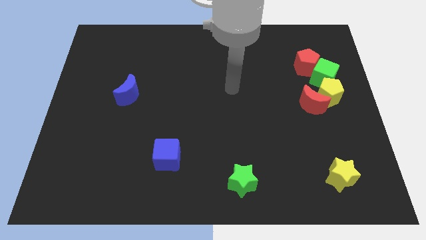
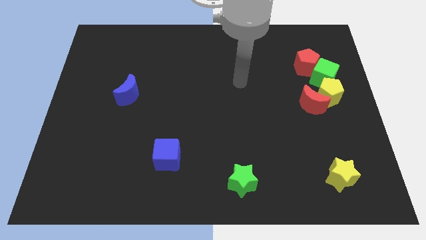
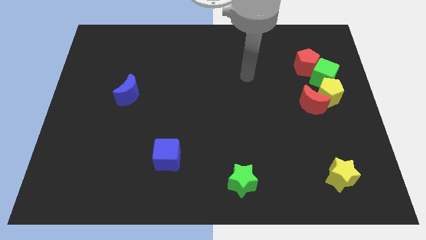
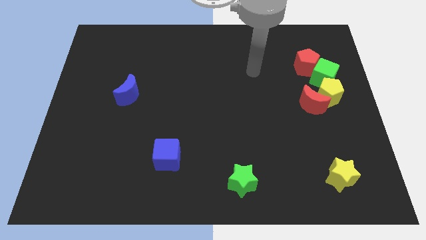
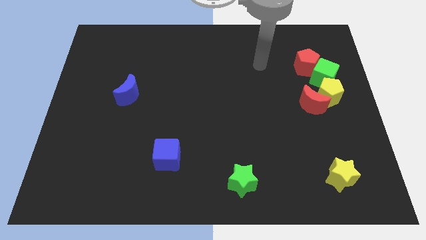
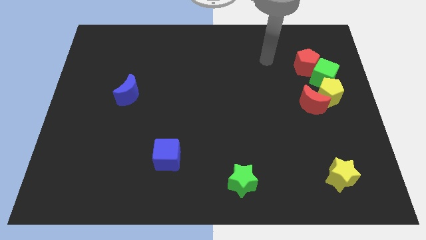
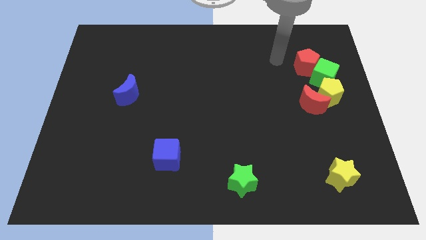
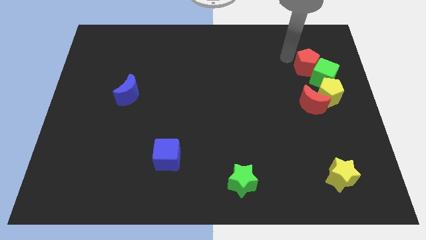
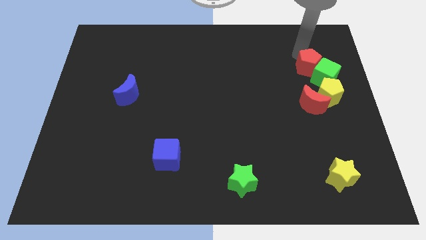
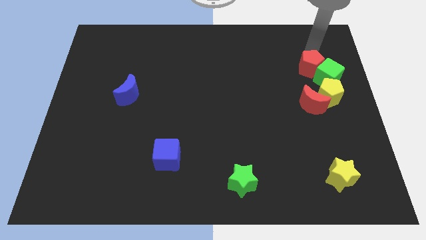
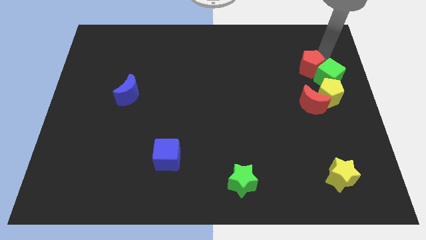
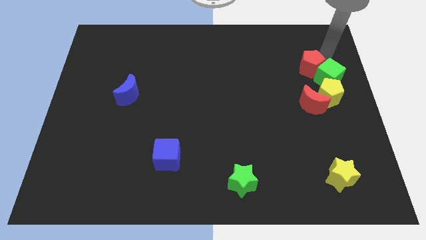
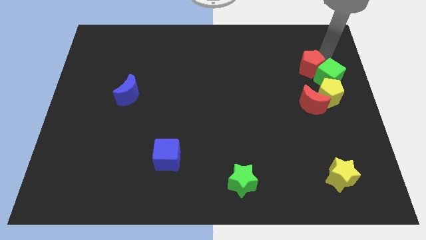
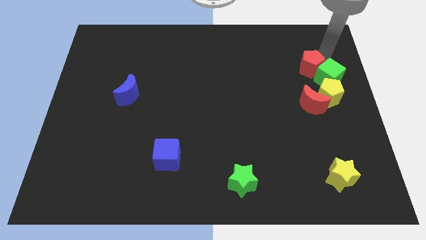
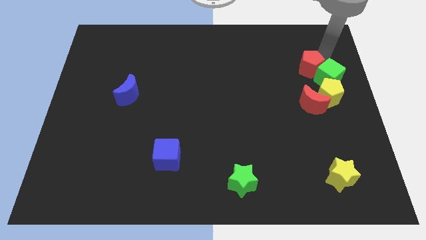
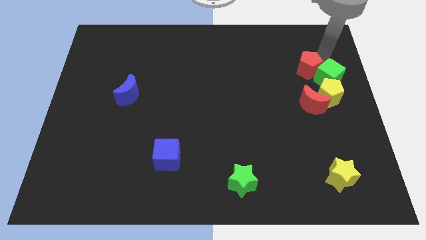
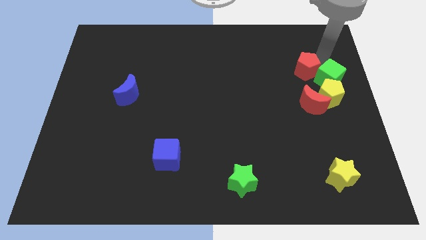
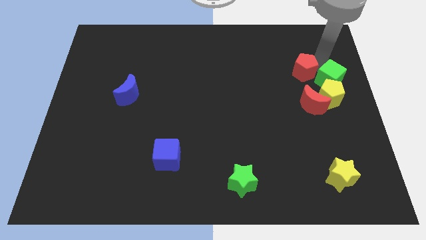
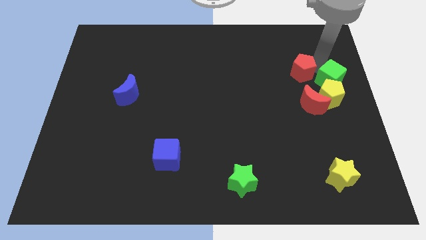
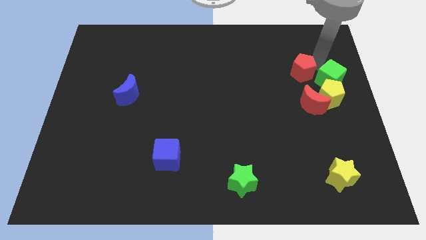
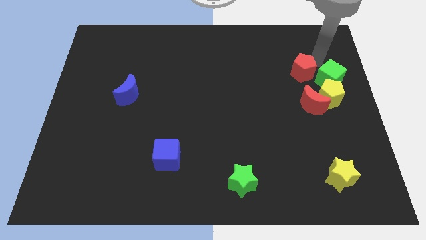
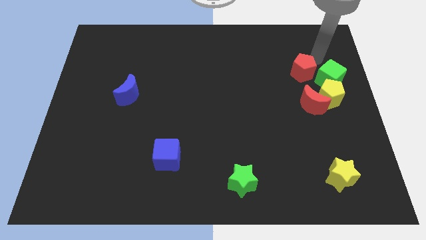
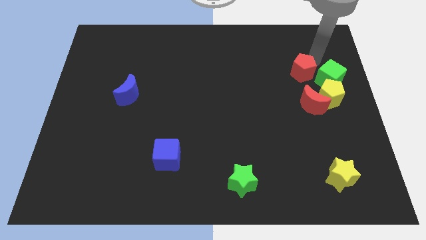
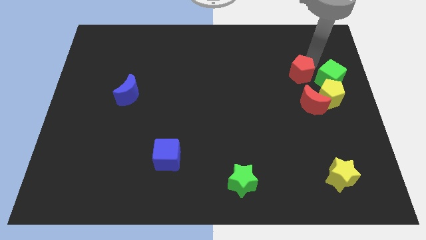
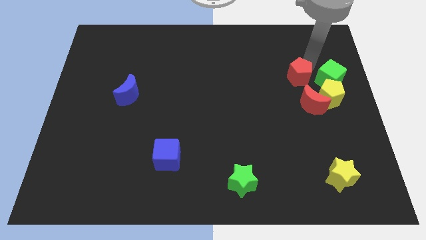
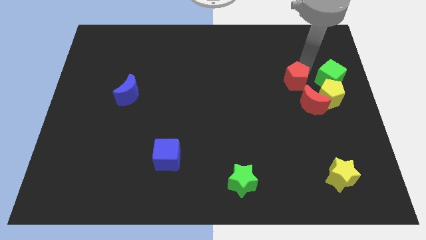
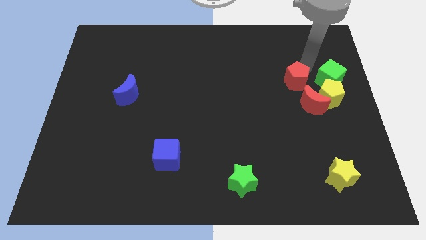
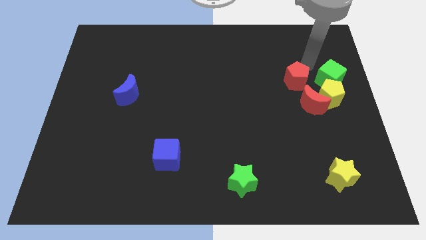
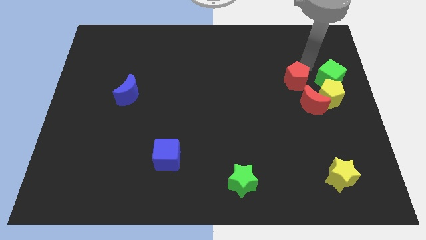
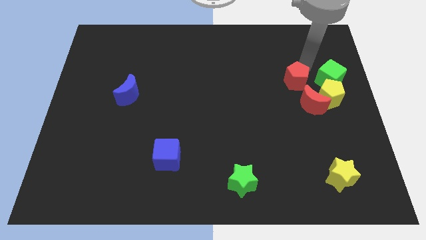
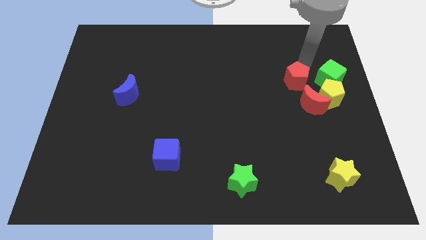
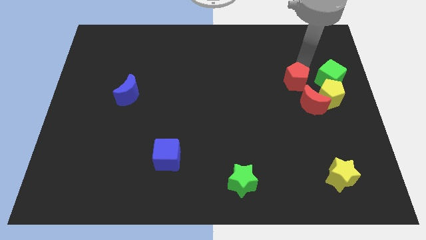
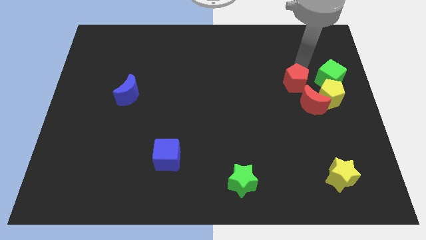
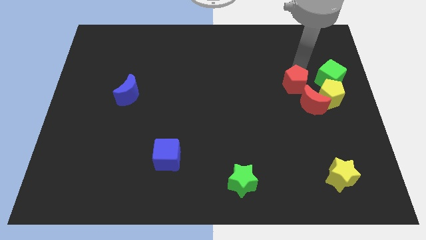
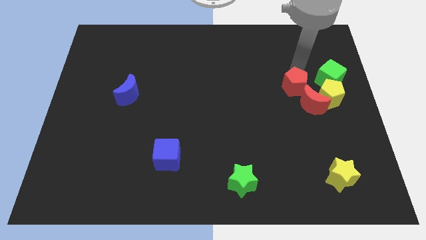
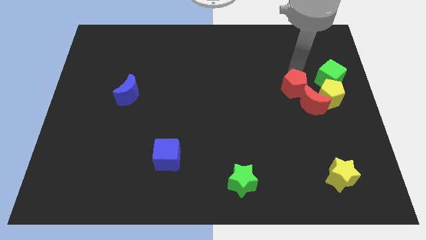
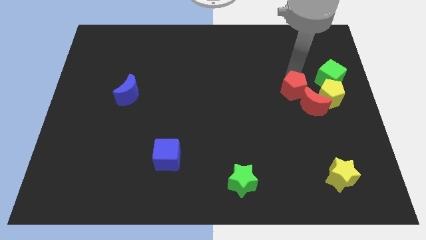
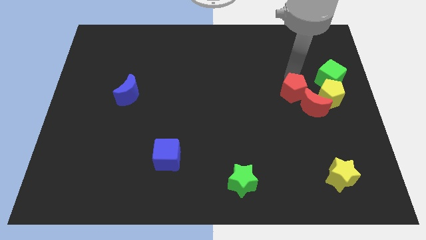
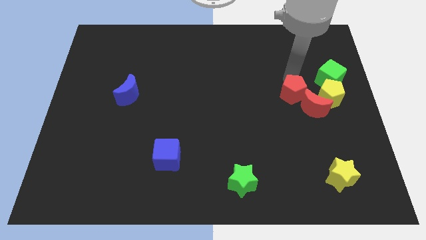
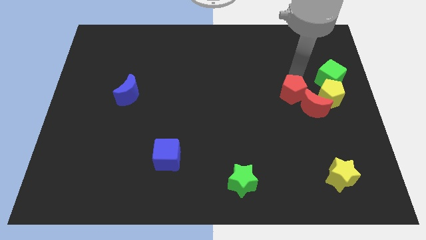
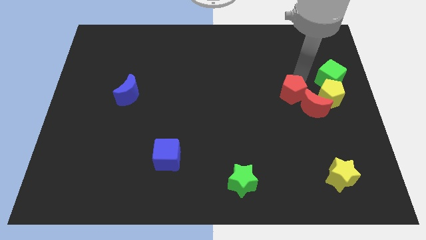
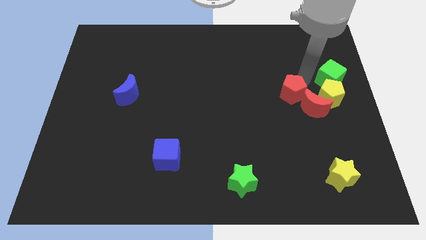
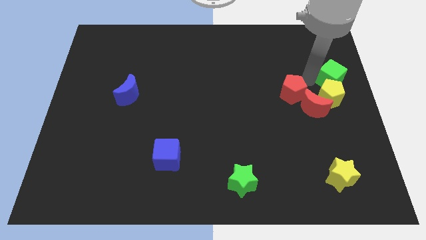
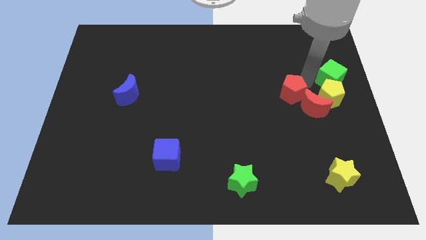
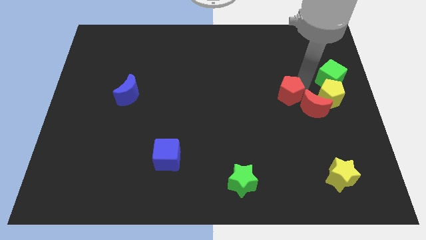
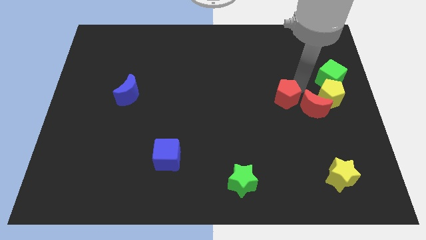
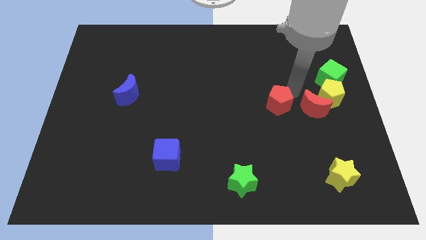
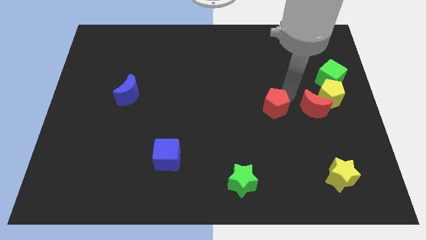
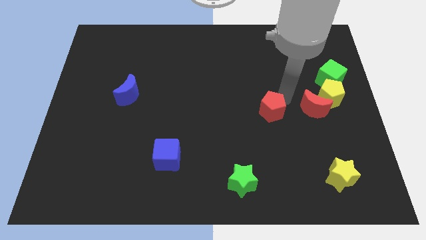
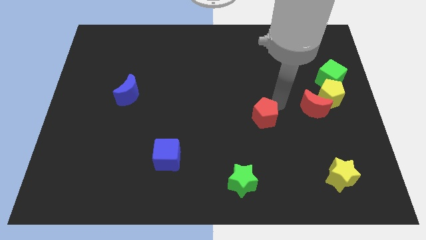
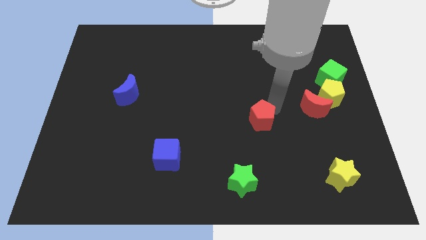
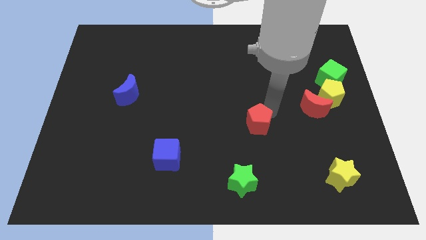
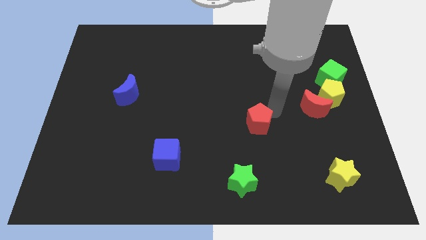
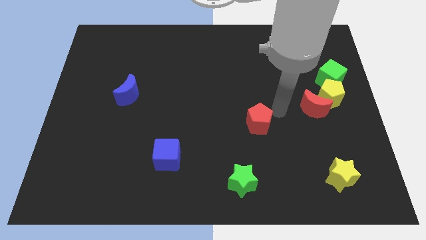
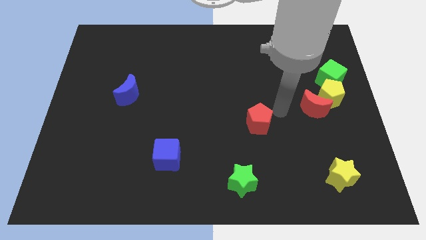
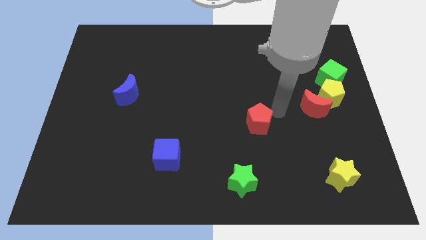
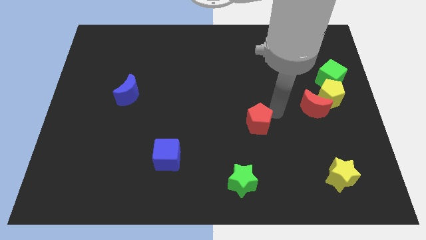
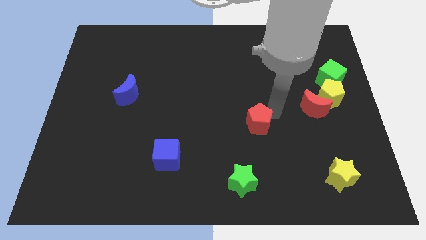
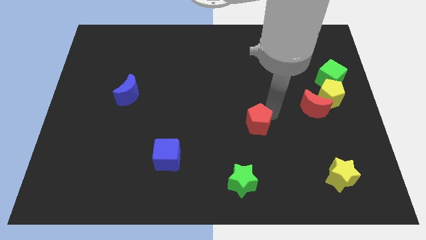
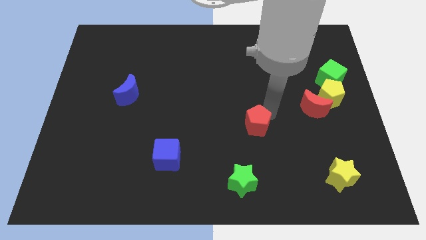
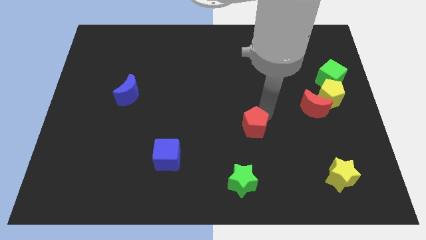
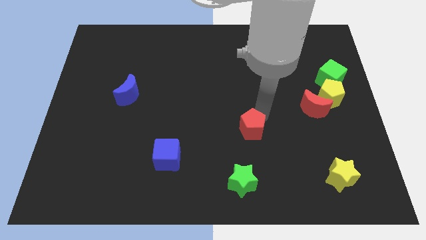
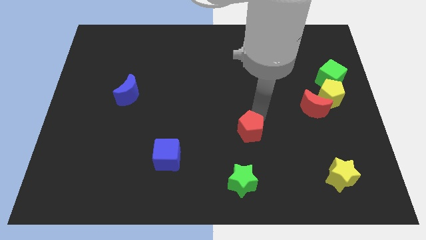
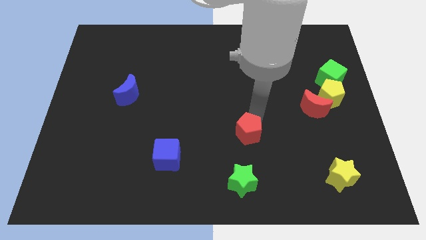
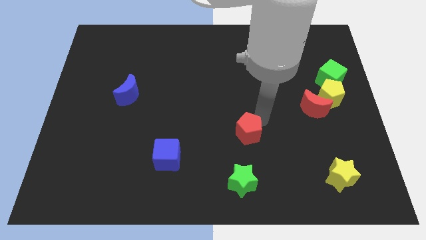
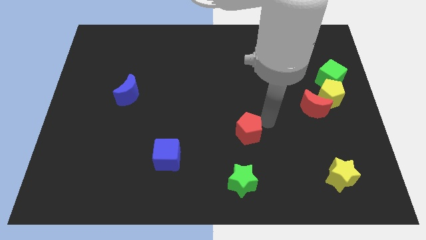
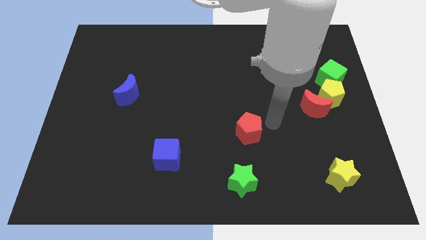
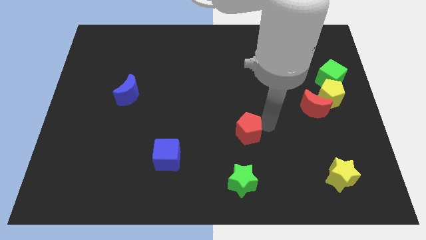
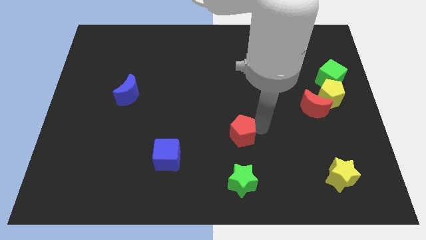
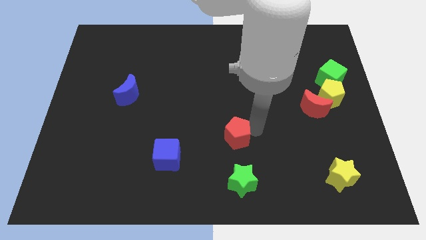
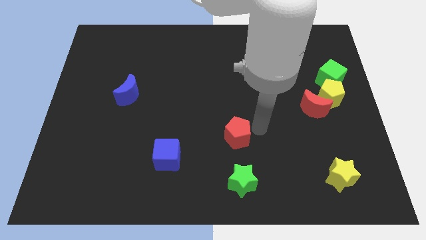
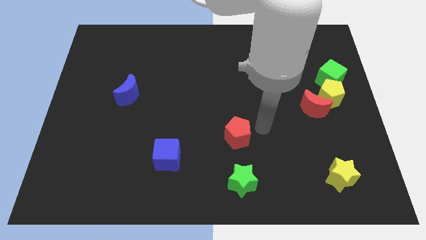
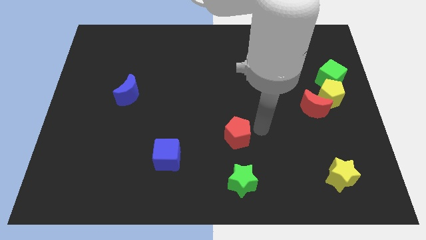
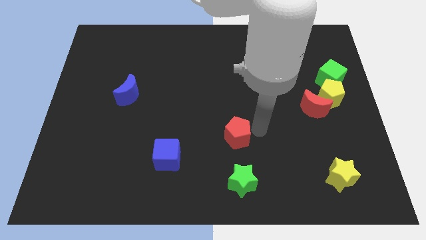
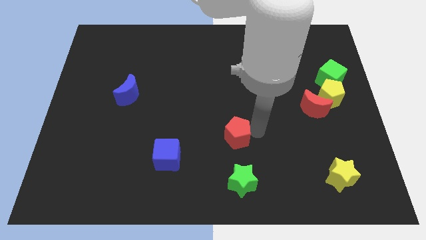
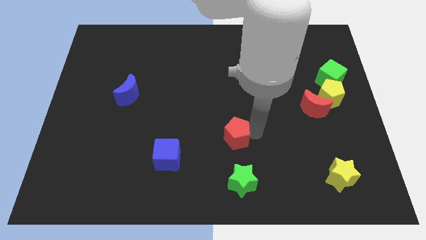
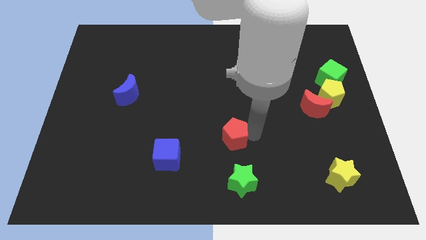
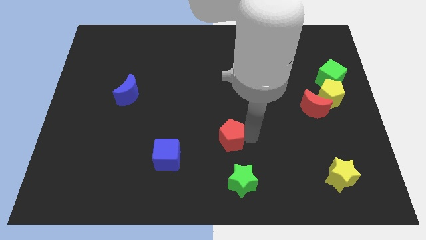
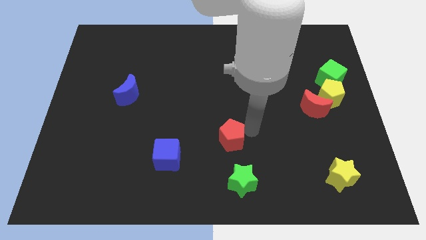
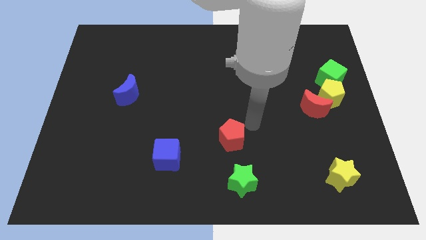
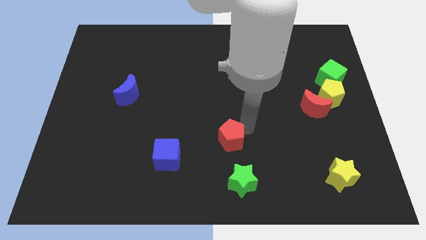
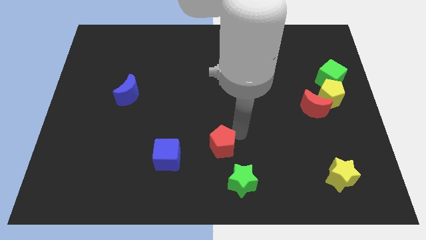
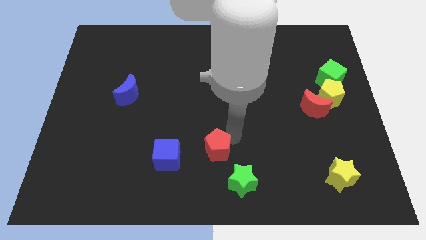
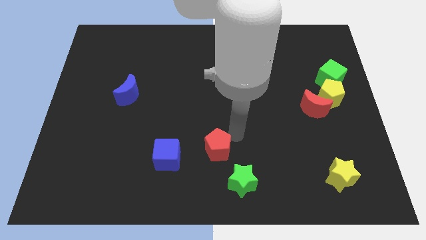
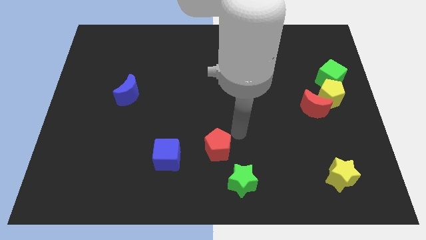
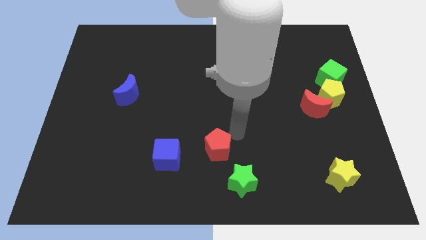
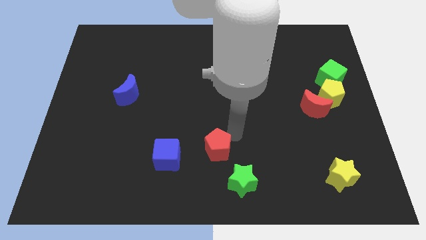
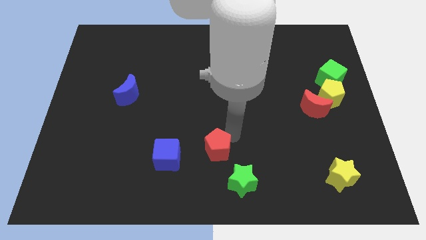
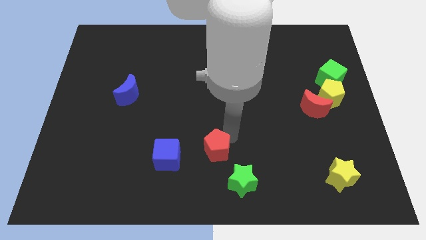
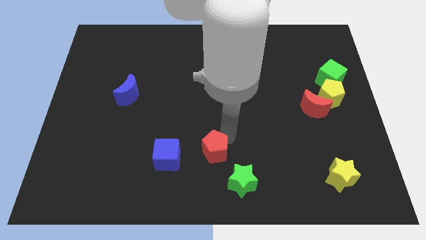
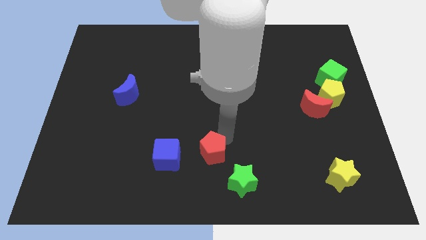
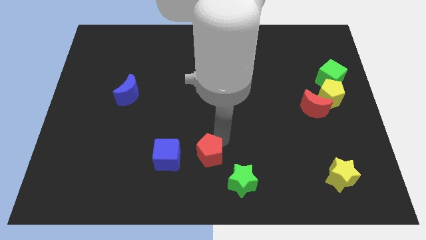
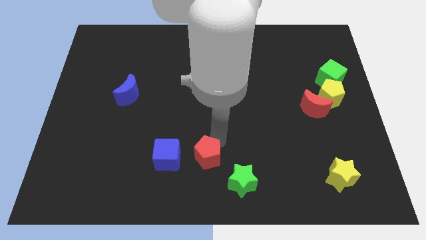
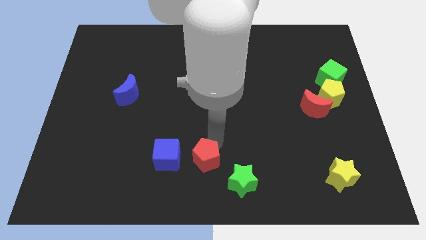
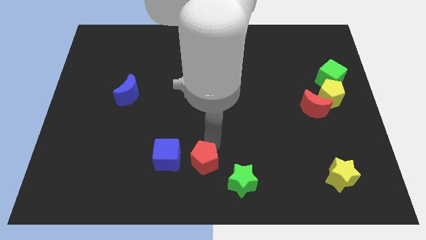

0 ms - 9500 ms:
put the red pentagon to the bottom right side of the blue cube
